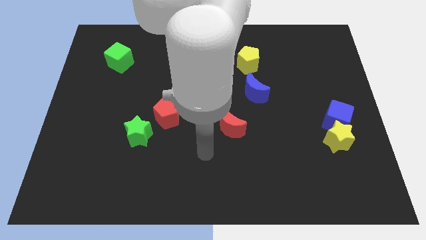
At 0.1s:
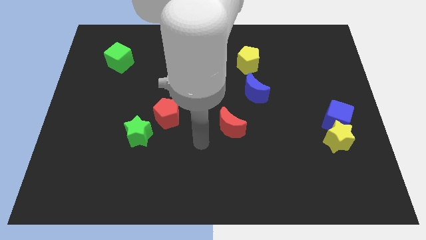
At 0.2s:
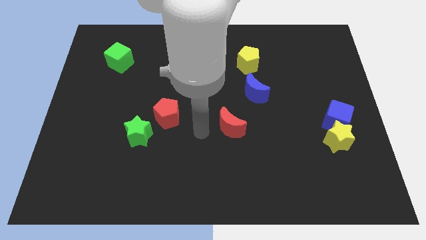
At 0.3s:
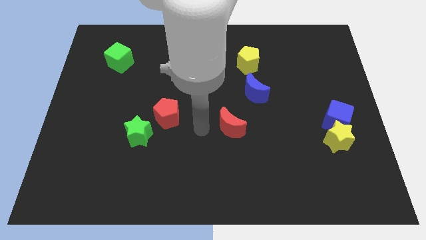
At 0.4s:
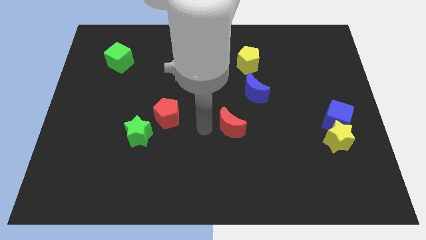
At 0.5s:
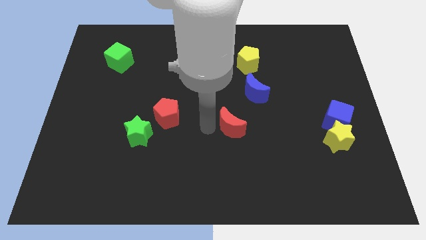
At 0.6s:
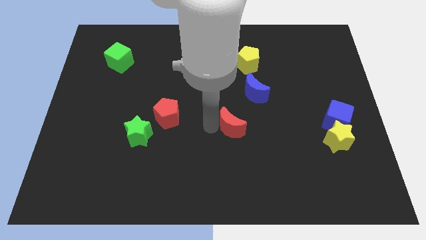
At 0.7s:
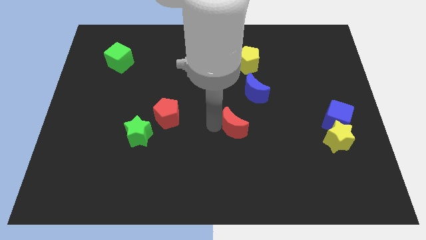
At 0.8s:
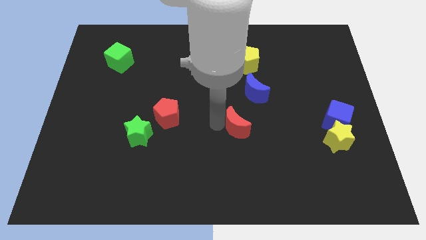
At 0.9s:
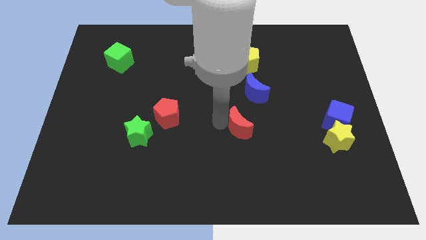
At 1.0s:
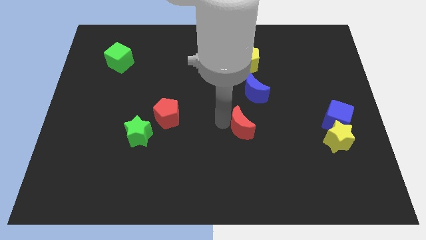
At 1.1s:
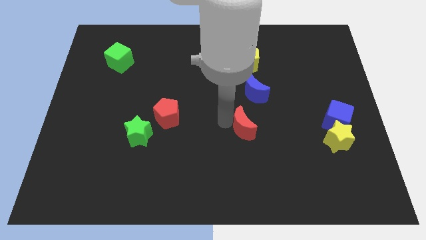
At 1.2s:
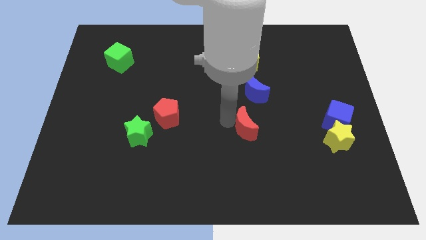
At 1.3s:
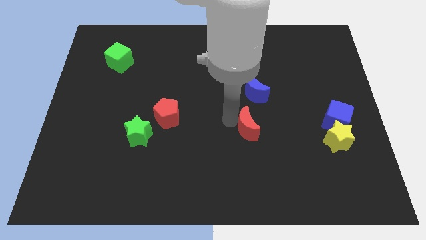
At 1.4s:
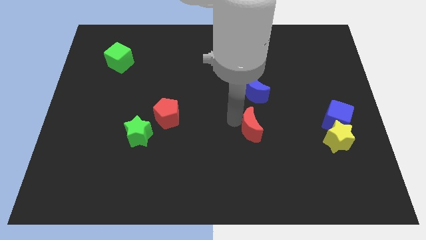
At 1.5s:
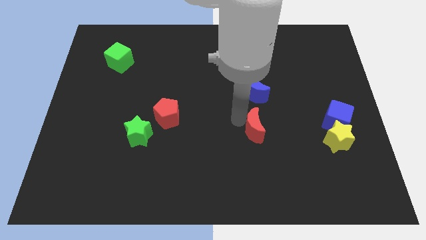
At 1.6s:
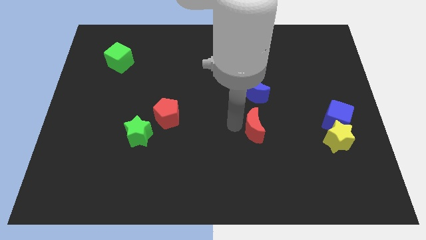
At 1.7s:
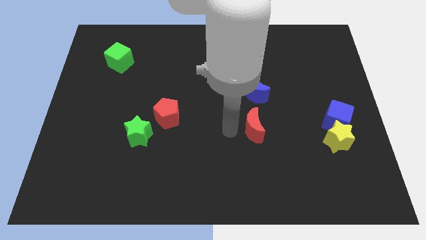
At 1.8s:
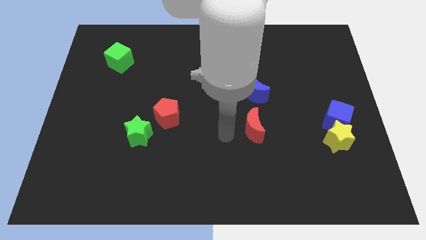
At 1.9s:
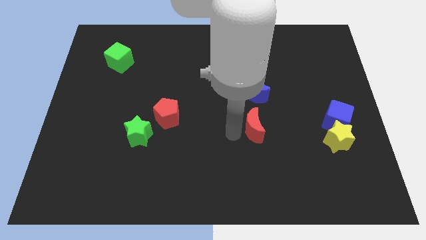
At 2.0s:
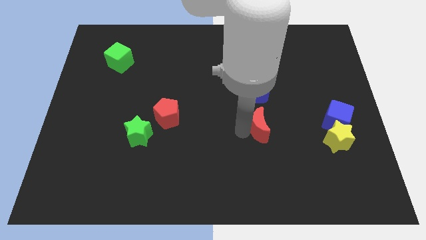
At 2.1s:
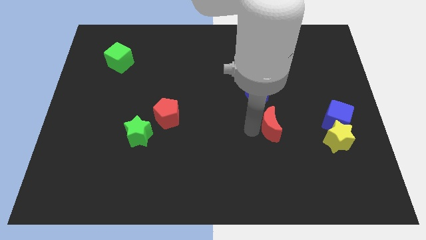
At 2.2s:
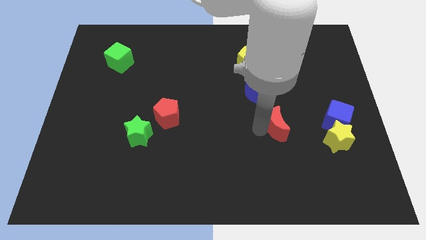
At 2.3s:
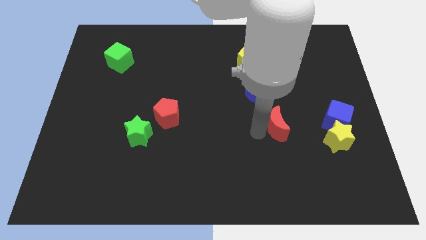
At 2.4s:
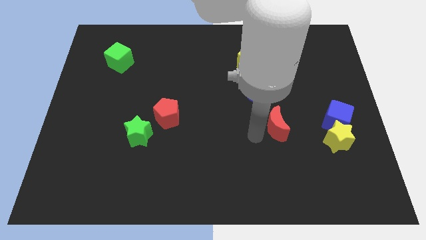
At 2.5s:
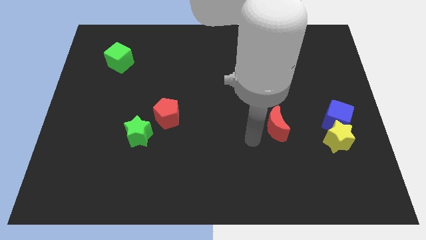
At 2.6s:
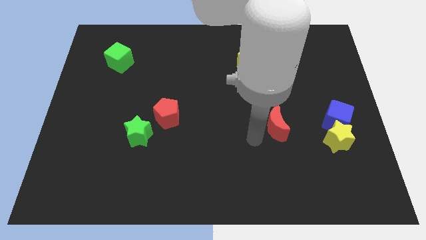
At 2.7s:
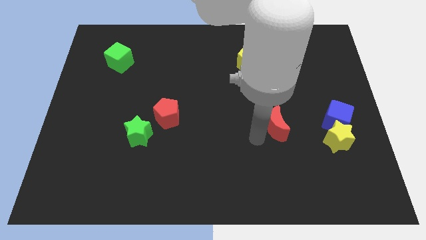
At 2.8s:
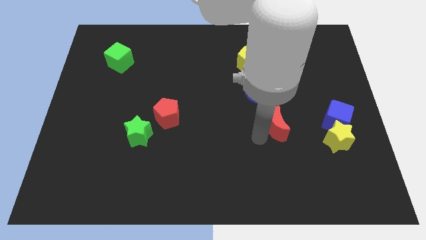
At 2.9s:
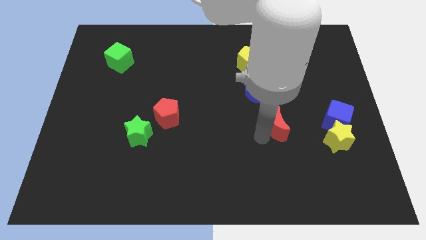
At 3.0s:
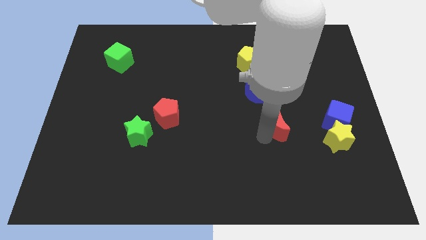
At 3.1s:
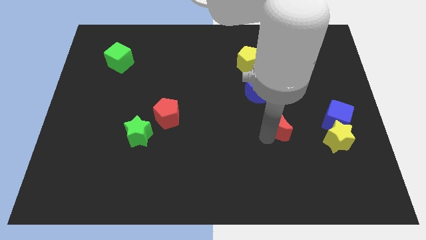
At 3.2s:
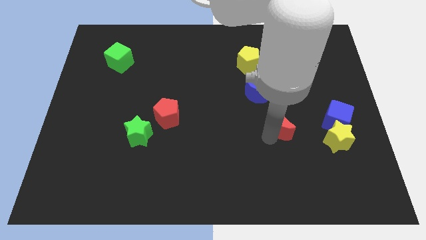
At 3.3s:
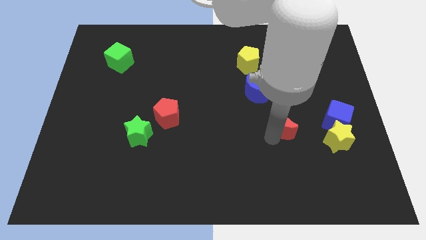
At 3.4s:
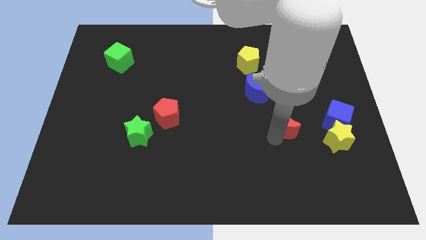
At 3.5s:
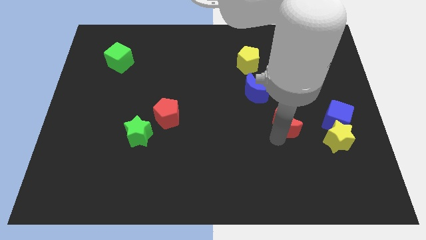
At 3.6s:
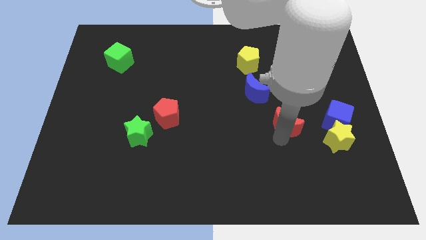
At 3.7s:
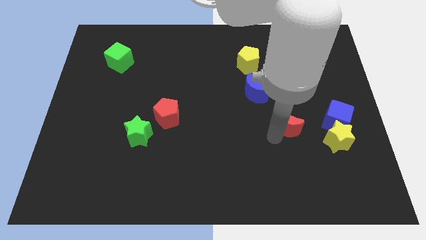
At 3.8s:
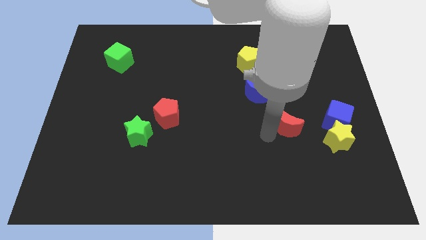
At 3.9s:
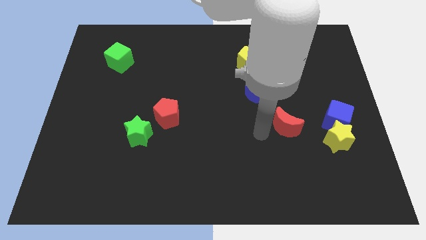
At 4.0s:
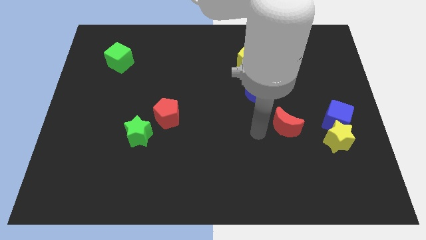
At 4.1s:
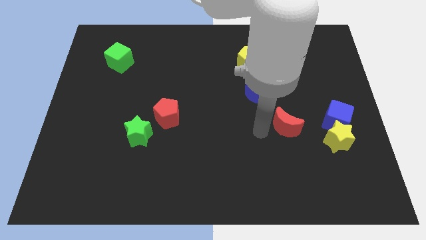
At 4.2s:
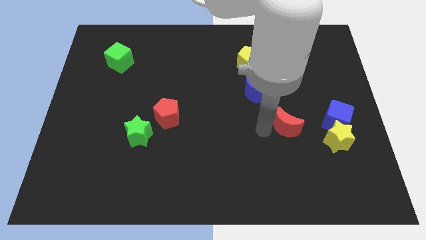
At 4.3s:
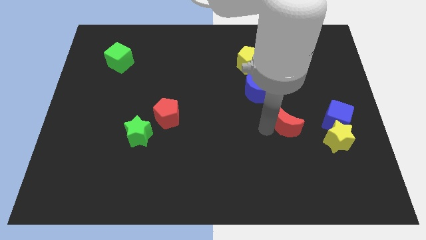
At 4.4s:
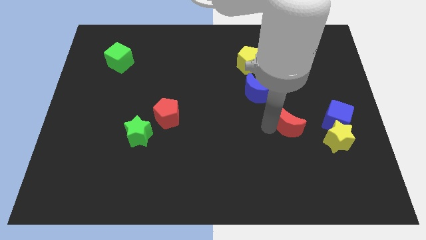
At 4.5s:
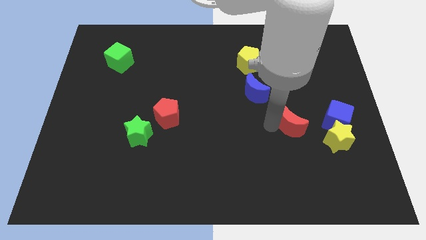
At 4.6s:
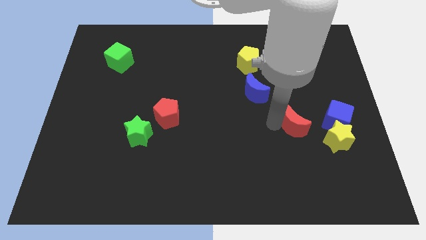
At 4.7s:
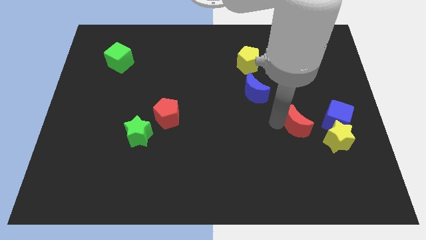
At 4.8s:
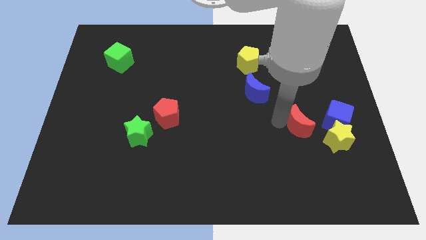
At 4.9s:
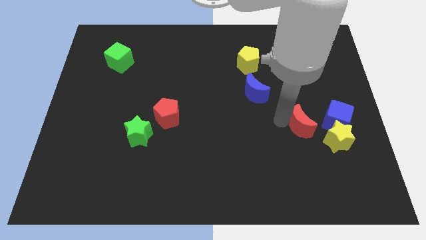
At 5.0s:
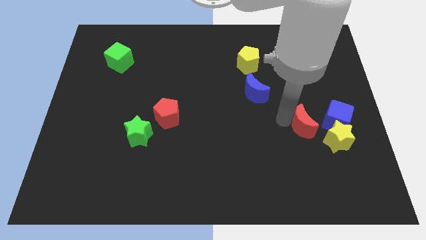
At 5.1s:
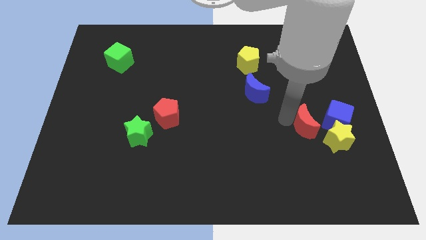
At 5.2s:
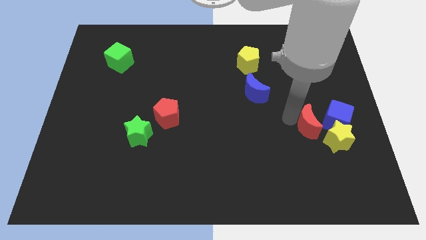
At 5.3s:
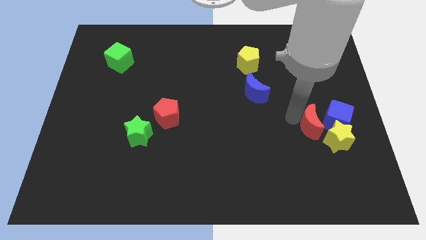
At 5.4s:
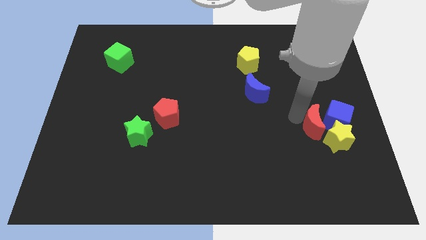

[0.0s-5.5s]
push the red moon towards the blue cube

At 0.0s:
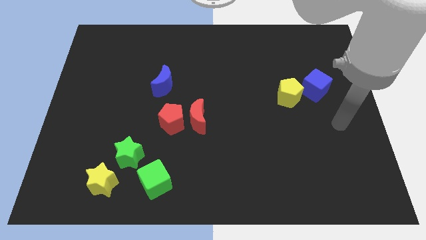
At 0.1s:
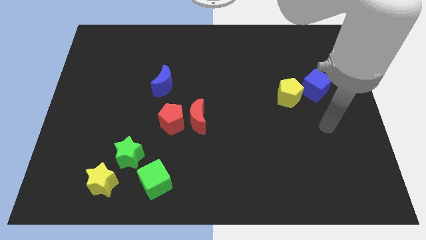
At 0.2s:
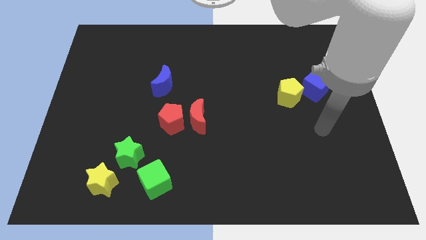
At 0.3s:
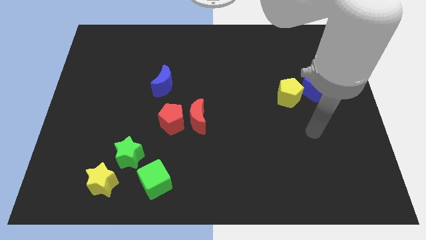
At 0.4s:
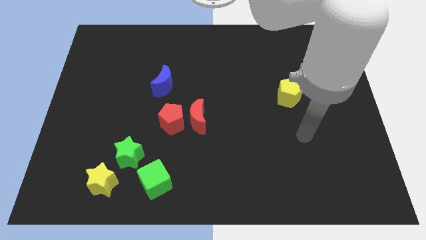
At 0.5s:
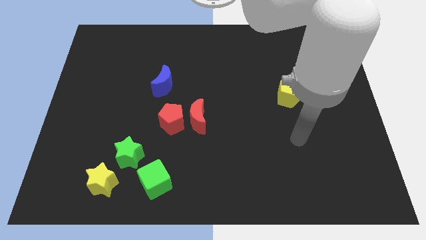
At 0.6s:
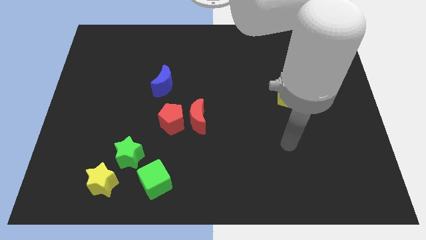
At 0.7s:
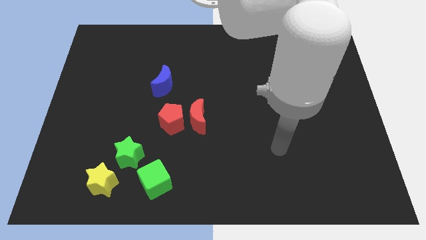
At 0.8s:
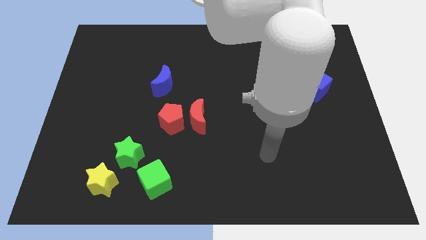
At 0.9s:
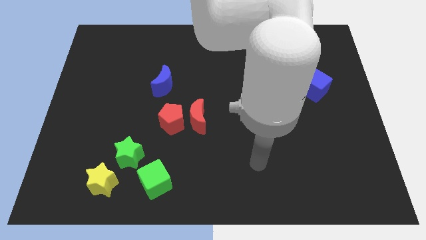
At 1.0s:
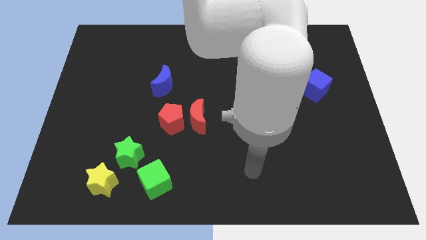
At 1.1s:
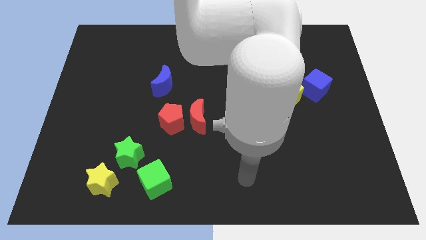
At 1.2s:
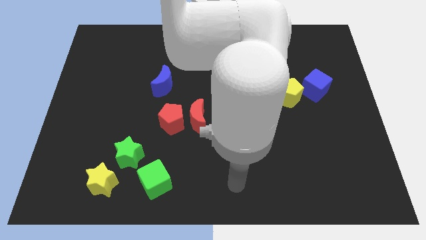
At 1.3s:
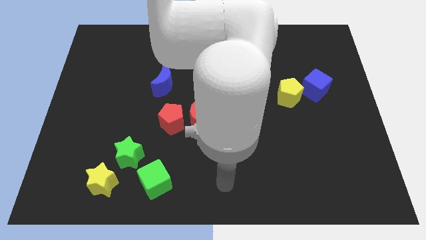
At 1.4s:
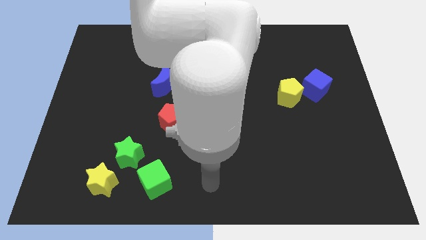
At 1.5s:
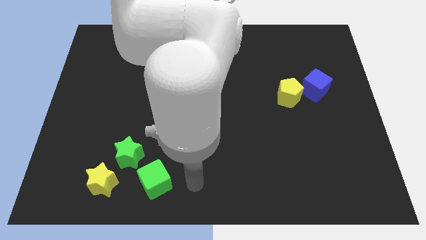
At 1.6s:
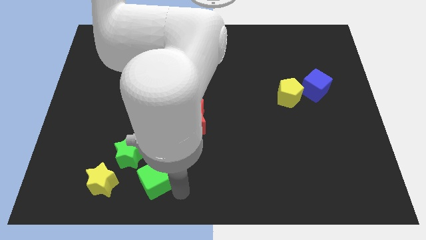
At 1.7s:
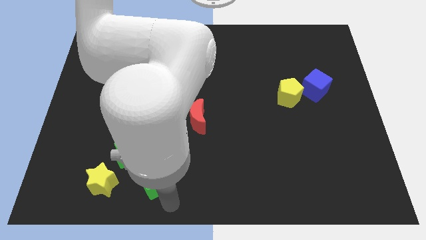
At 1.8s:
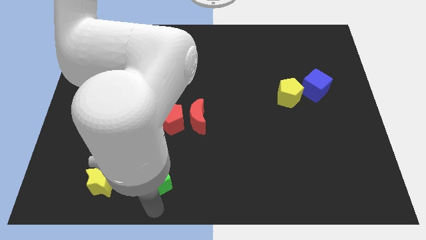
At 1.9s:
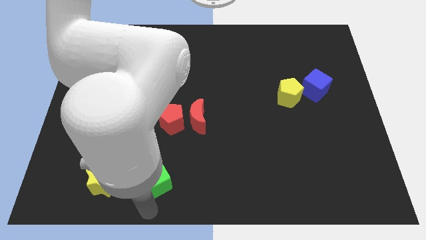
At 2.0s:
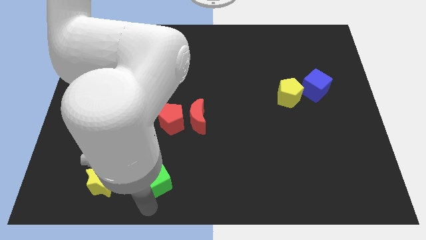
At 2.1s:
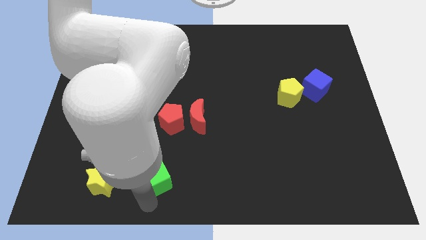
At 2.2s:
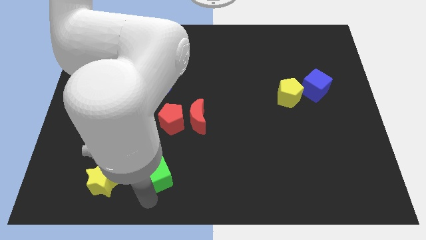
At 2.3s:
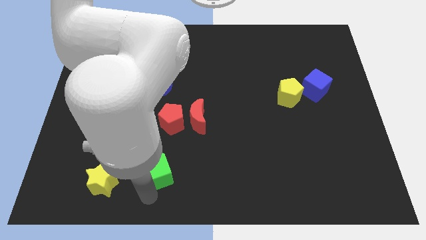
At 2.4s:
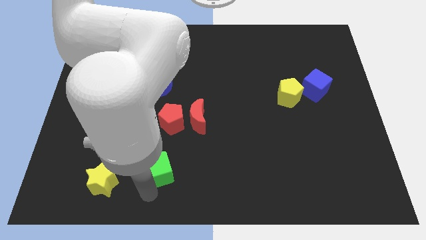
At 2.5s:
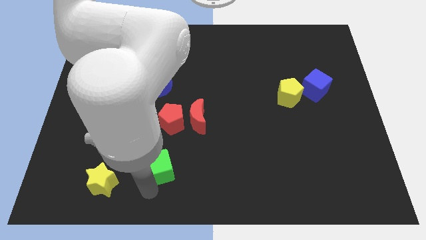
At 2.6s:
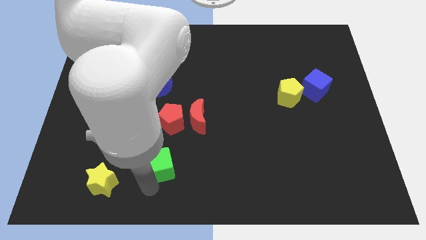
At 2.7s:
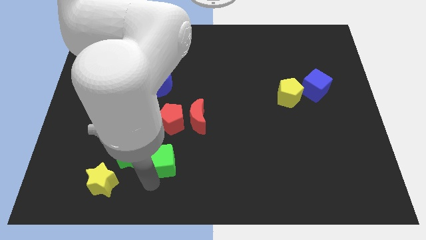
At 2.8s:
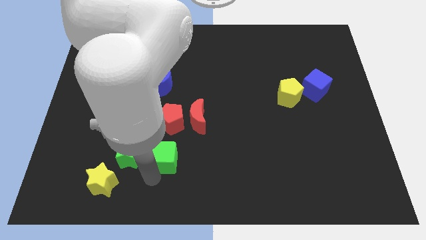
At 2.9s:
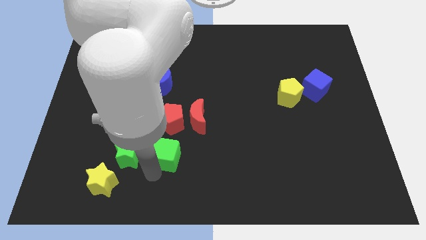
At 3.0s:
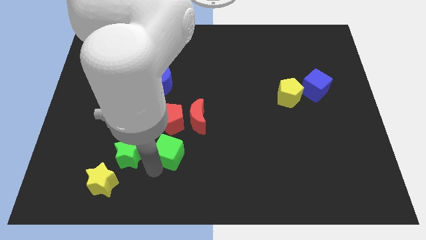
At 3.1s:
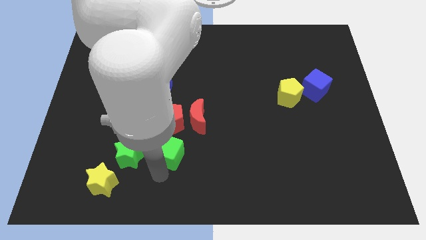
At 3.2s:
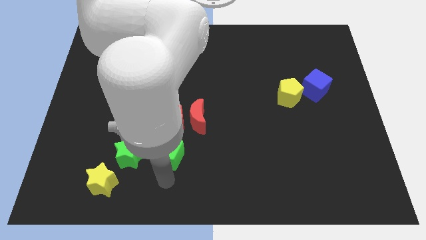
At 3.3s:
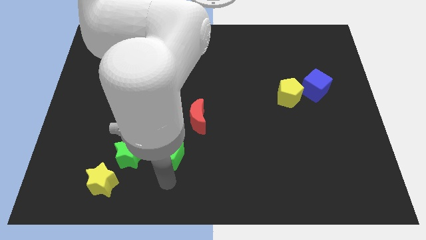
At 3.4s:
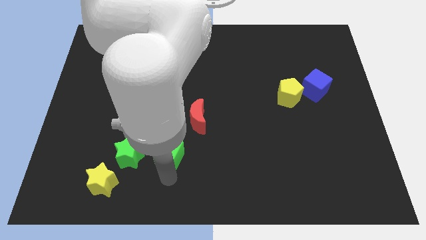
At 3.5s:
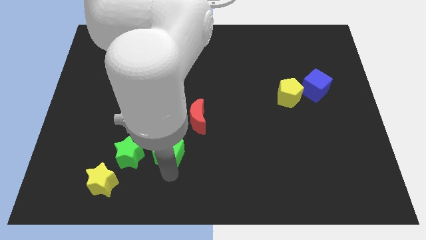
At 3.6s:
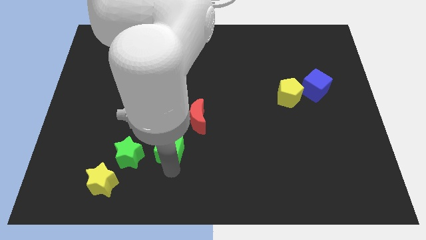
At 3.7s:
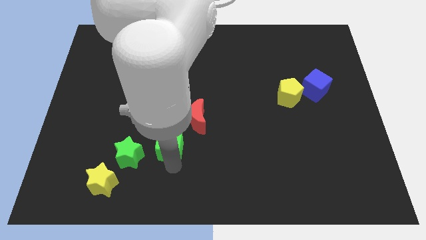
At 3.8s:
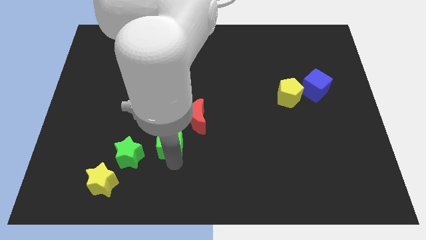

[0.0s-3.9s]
move the green cube towards the red pentagon
